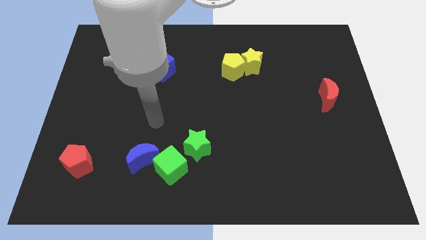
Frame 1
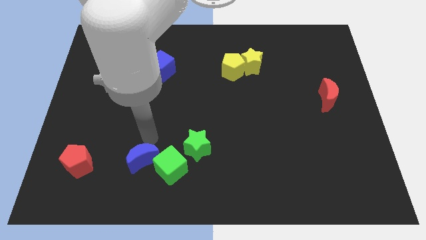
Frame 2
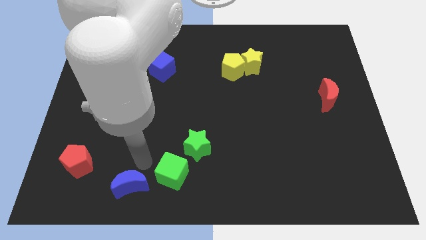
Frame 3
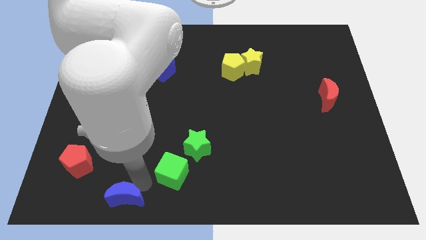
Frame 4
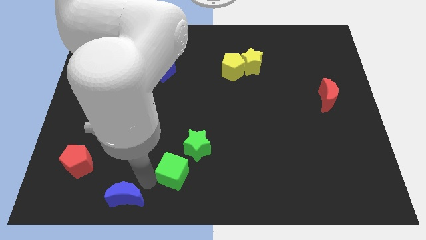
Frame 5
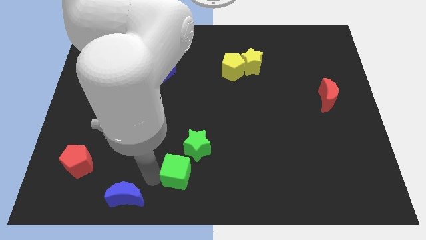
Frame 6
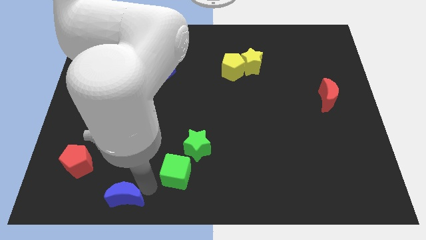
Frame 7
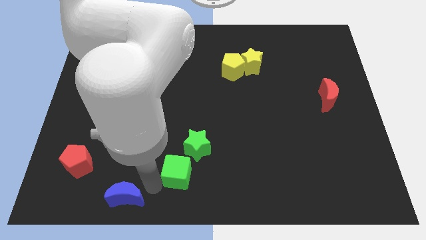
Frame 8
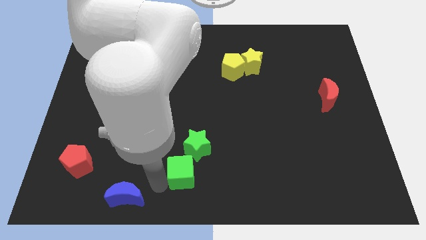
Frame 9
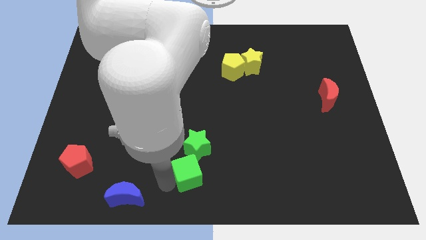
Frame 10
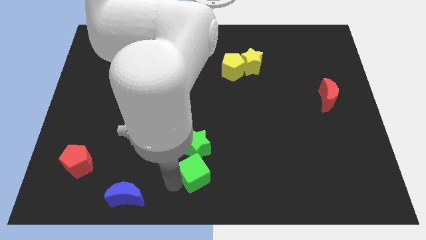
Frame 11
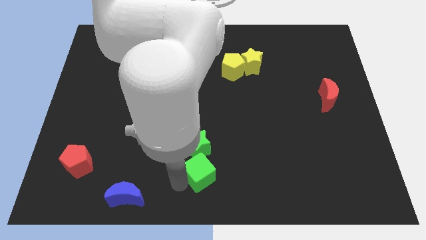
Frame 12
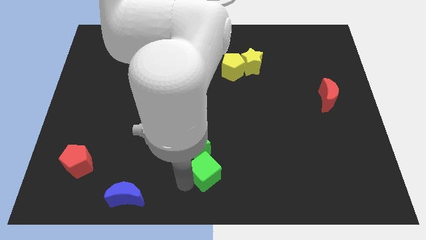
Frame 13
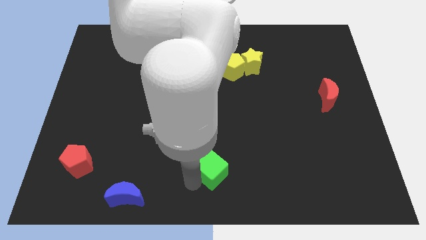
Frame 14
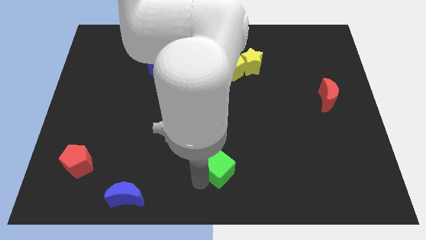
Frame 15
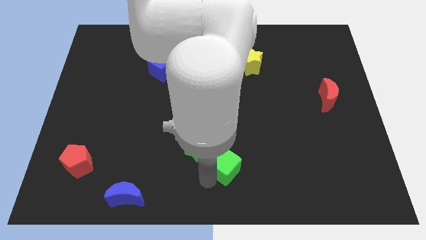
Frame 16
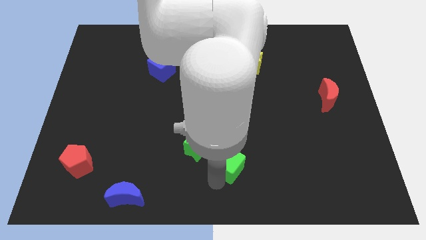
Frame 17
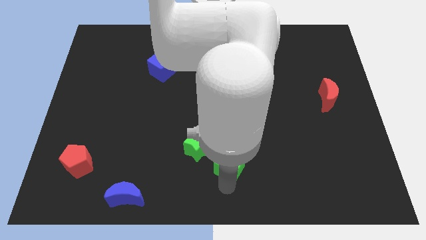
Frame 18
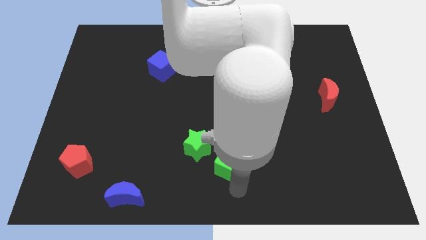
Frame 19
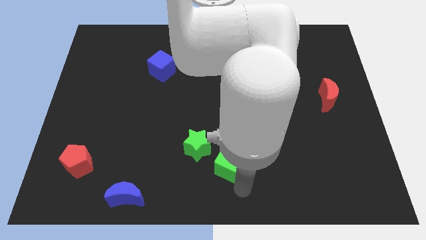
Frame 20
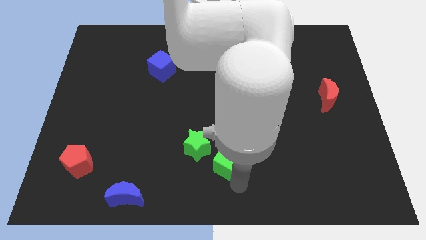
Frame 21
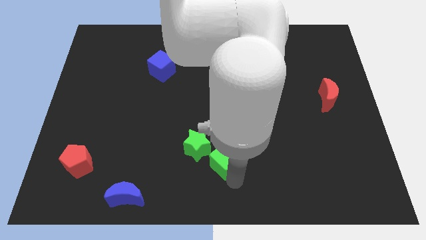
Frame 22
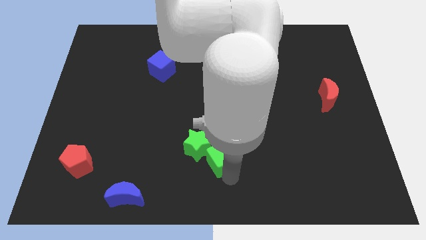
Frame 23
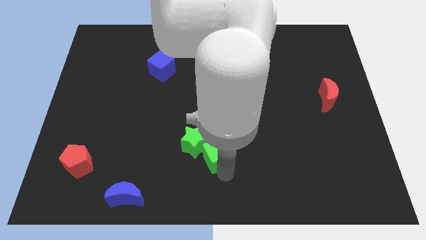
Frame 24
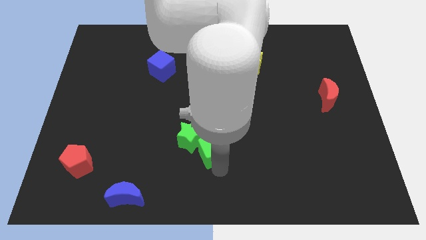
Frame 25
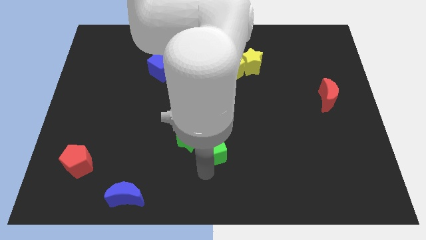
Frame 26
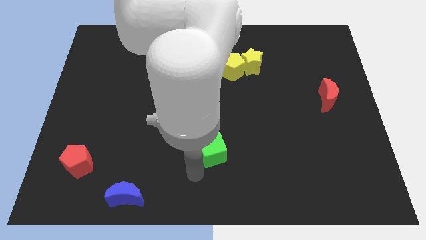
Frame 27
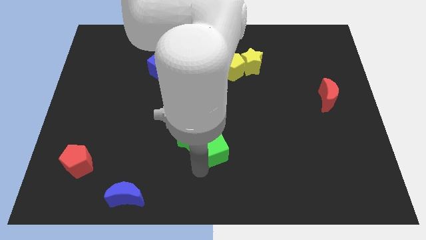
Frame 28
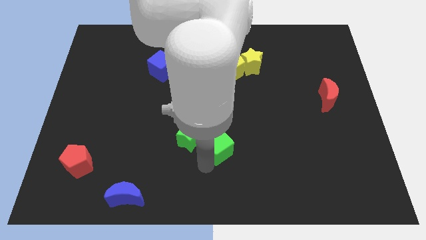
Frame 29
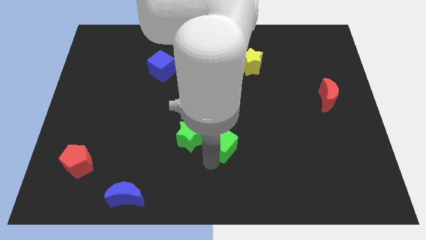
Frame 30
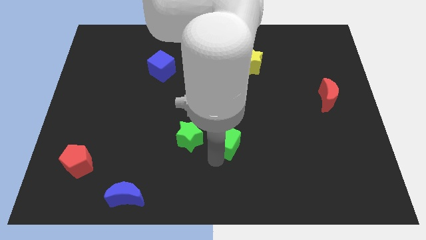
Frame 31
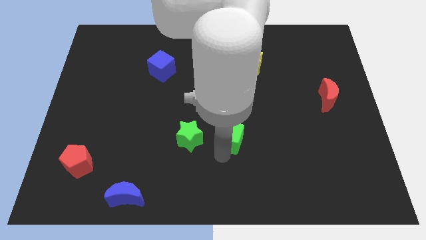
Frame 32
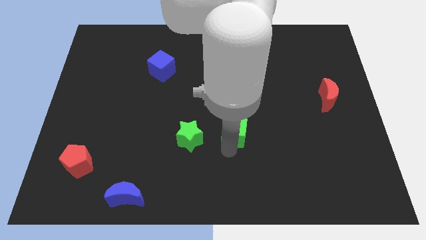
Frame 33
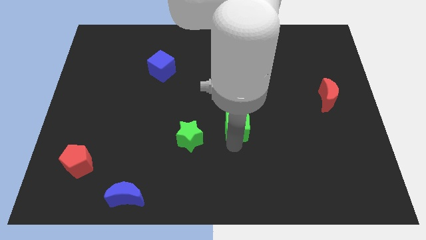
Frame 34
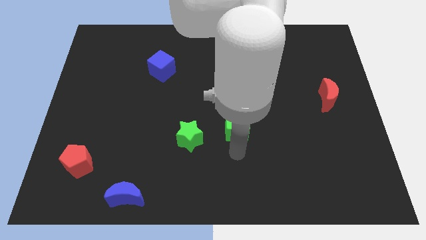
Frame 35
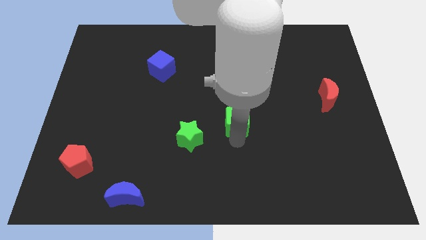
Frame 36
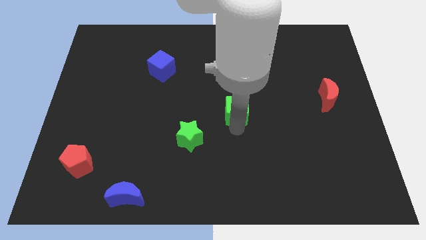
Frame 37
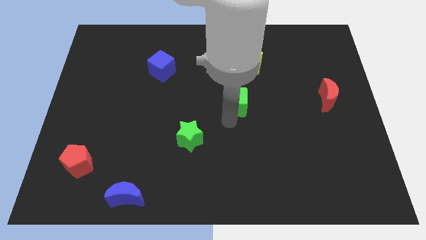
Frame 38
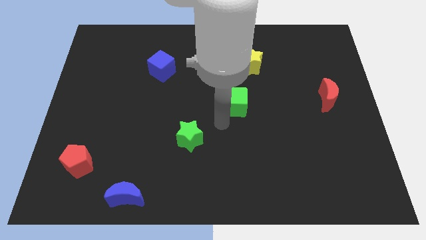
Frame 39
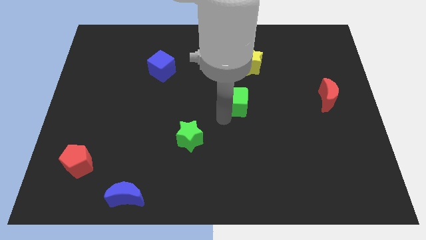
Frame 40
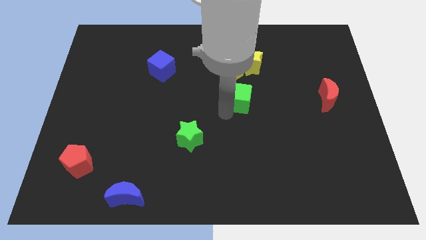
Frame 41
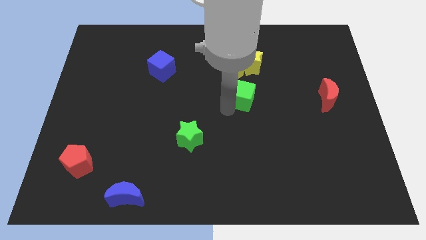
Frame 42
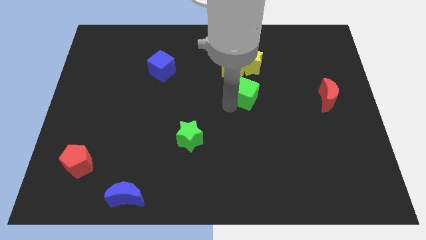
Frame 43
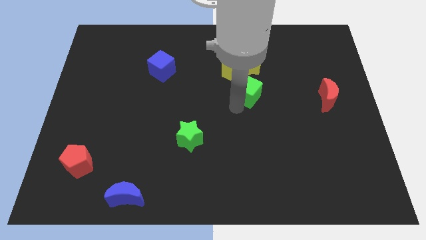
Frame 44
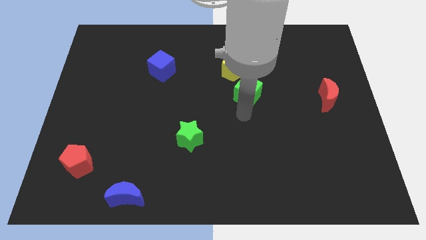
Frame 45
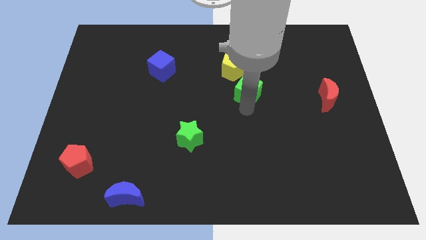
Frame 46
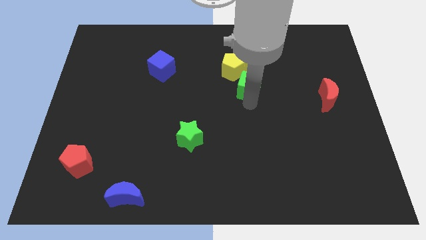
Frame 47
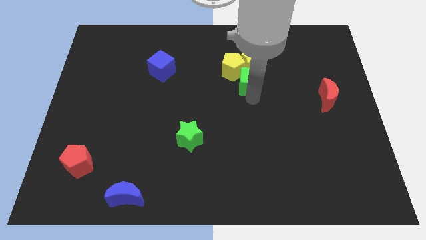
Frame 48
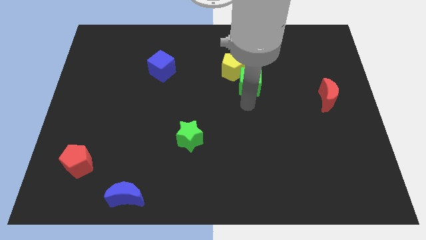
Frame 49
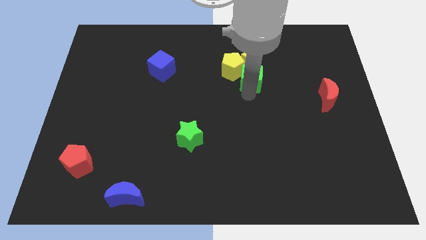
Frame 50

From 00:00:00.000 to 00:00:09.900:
push the green cube close to the yellow star

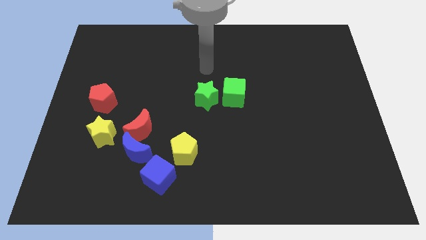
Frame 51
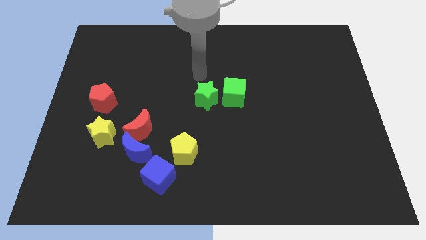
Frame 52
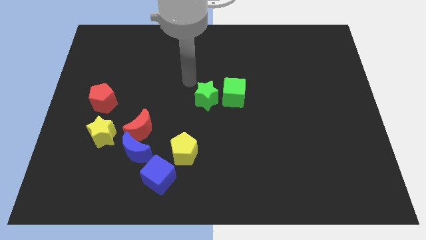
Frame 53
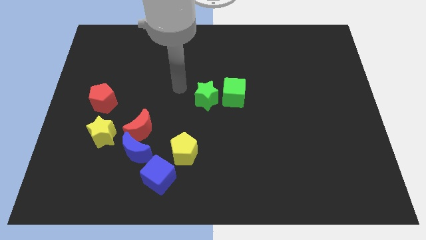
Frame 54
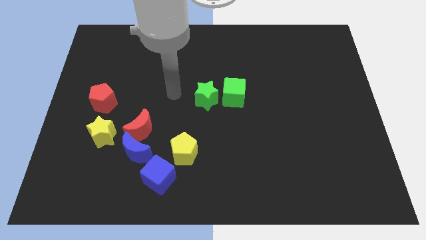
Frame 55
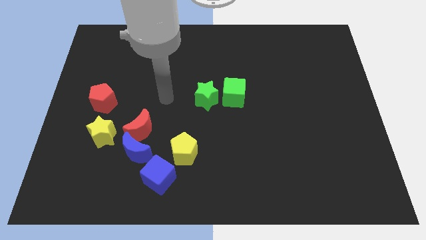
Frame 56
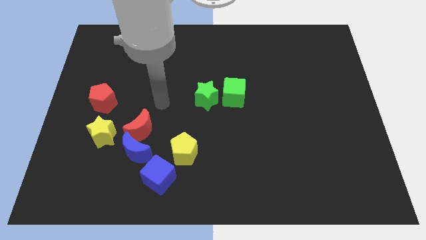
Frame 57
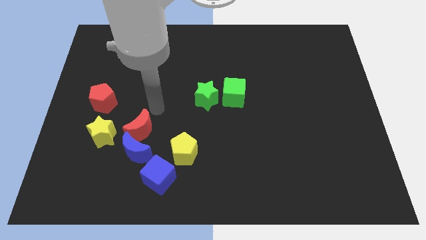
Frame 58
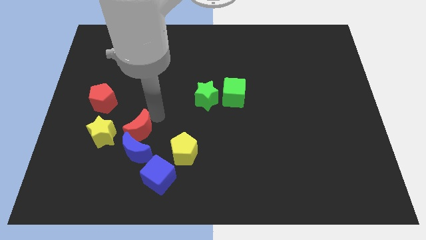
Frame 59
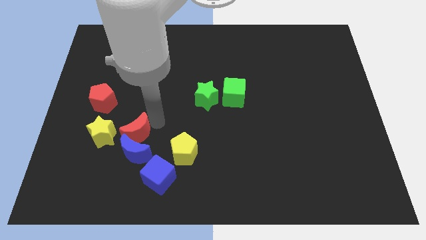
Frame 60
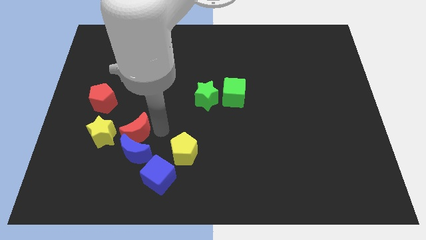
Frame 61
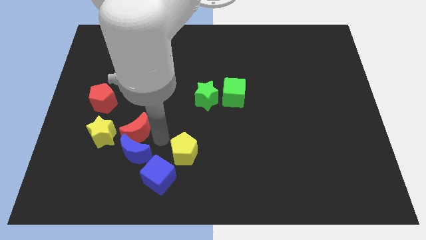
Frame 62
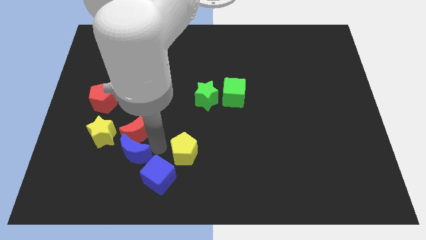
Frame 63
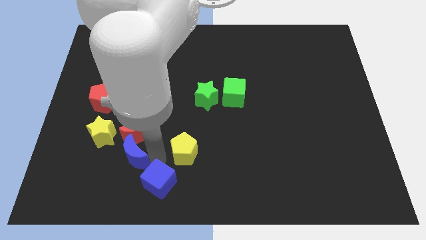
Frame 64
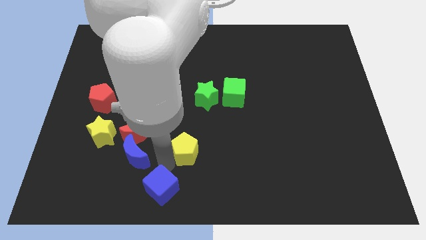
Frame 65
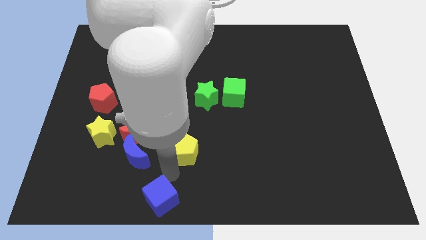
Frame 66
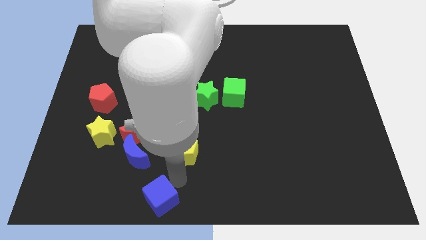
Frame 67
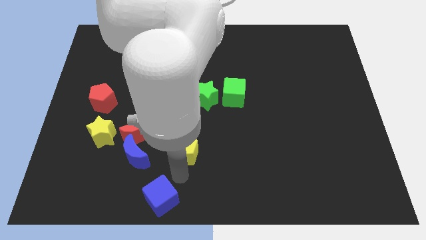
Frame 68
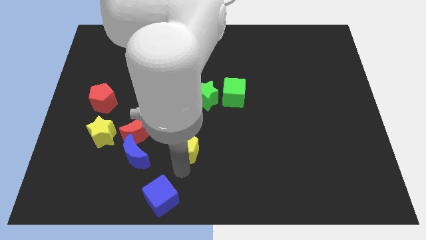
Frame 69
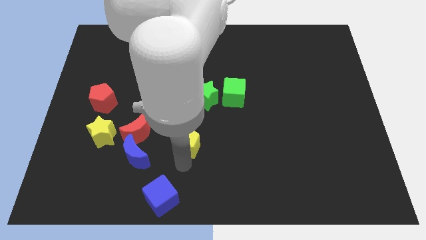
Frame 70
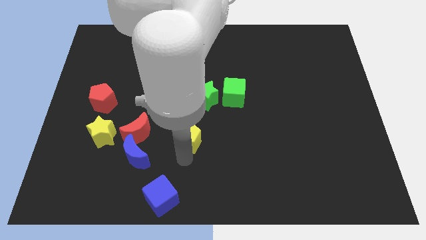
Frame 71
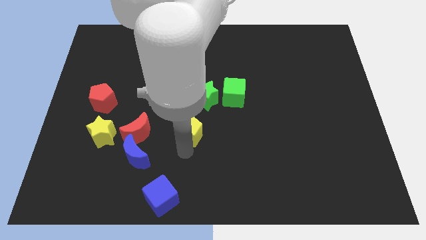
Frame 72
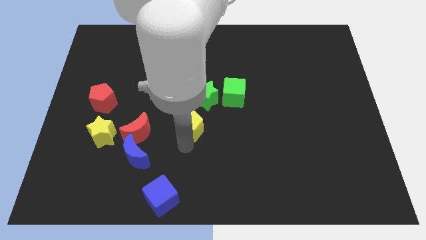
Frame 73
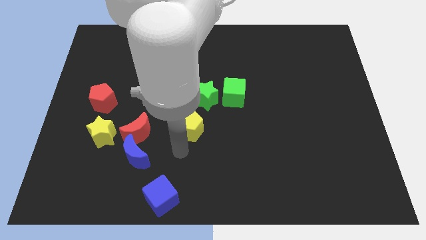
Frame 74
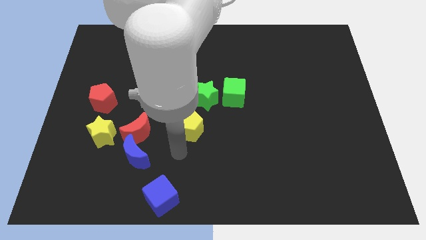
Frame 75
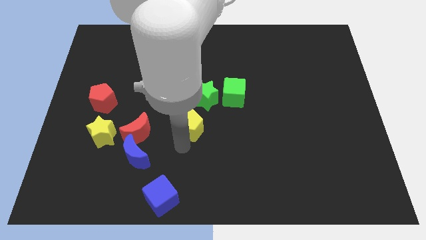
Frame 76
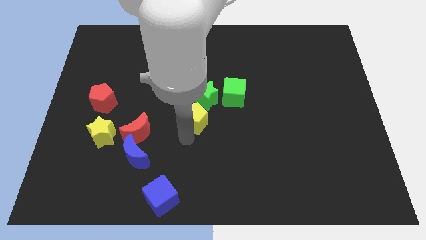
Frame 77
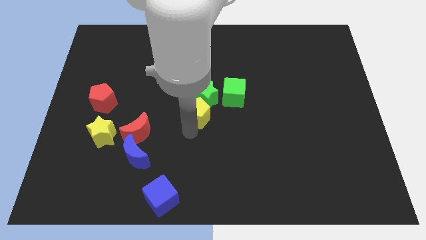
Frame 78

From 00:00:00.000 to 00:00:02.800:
put the yellow pentagon to the green star
